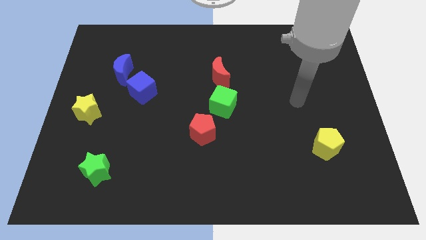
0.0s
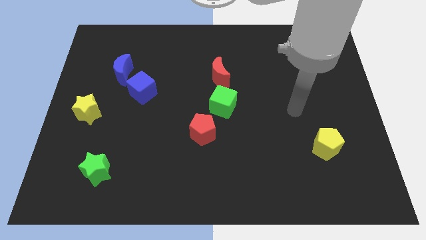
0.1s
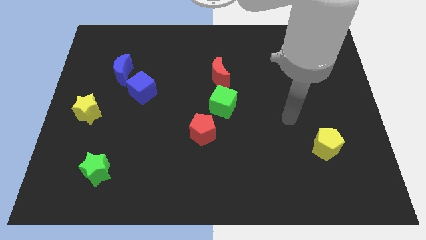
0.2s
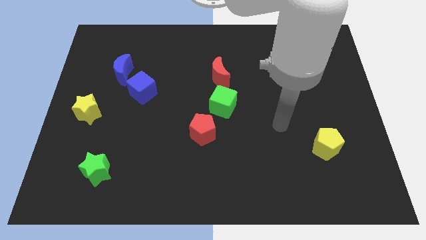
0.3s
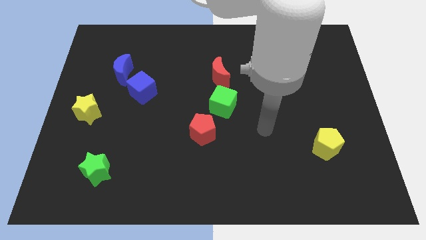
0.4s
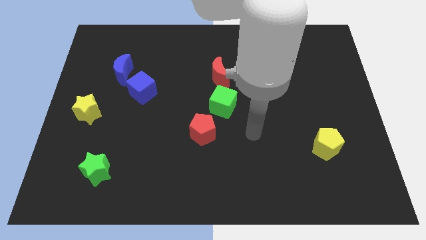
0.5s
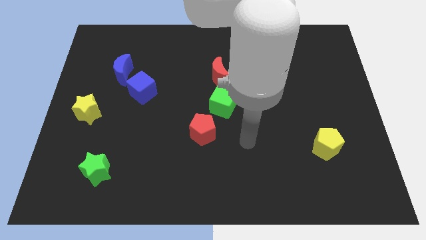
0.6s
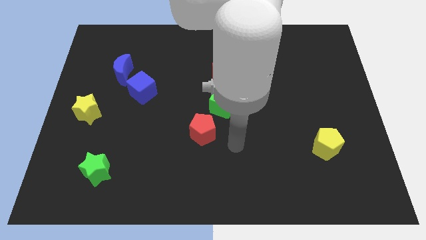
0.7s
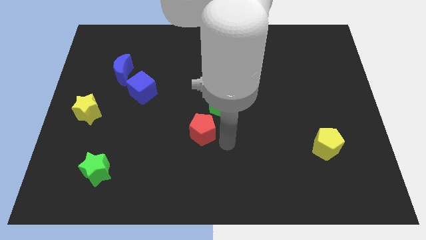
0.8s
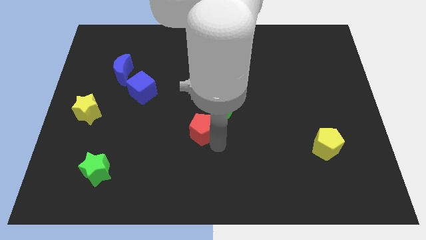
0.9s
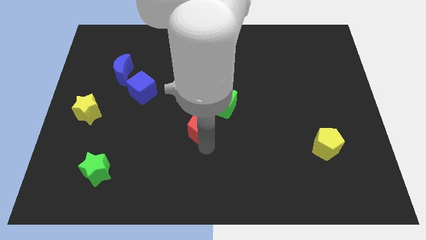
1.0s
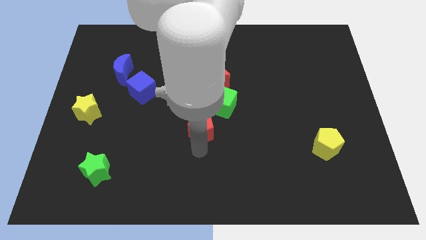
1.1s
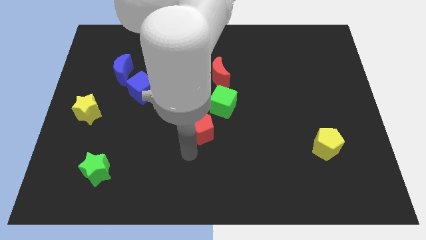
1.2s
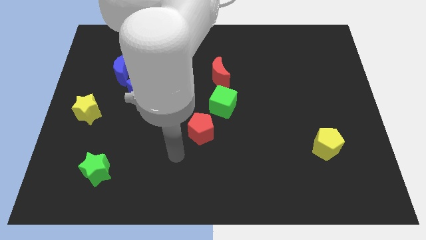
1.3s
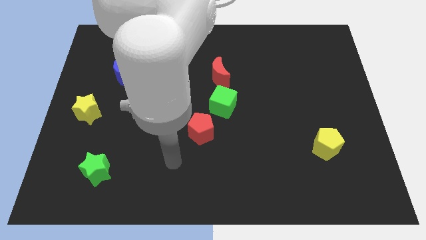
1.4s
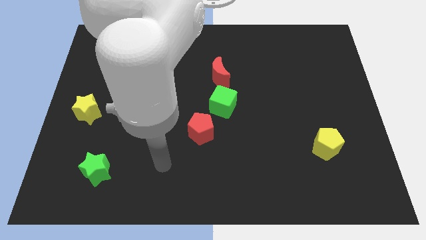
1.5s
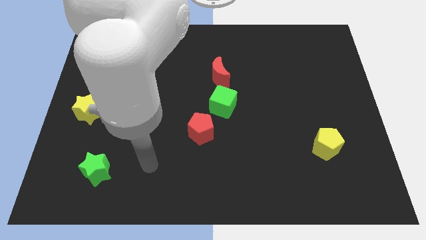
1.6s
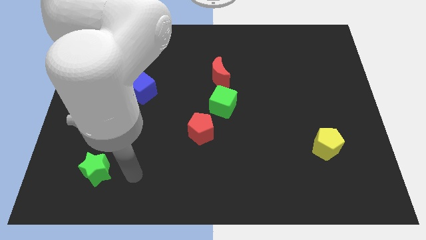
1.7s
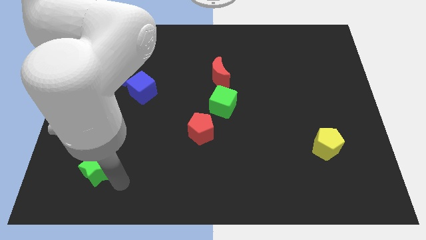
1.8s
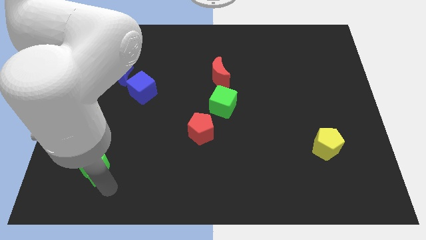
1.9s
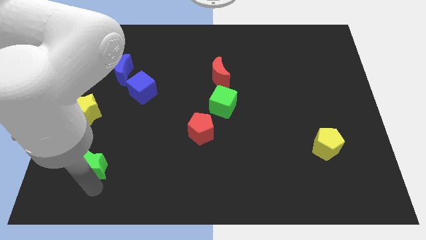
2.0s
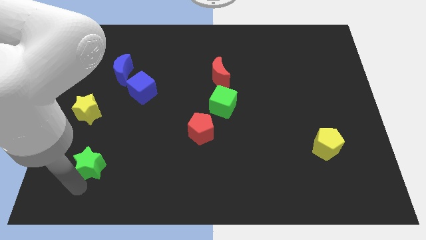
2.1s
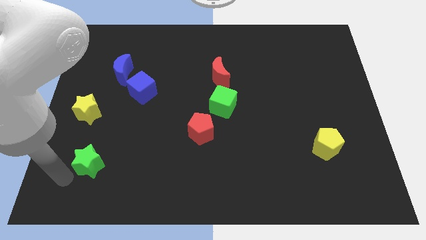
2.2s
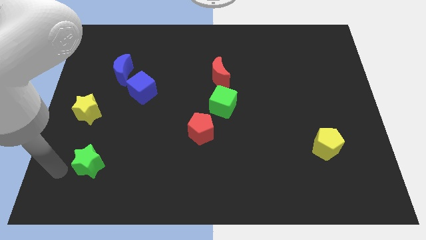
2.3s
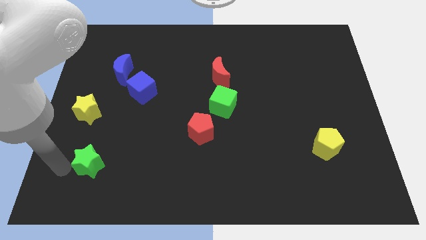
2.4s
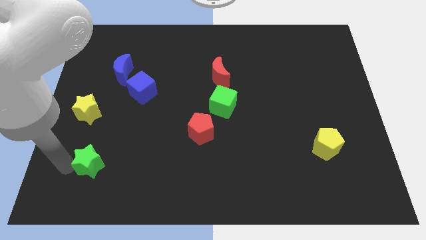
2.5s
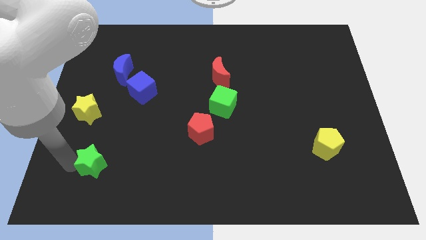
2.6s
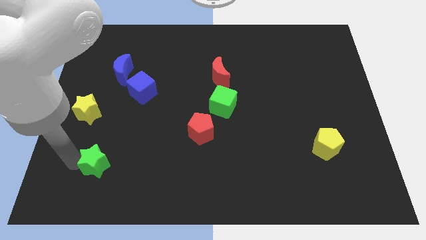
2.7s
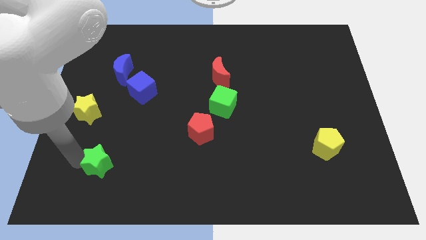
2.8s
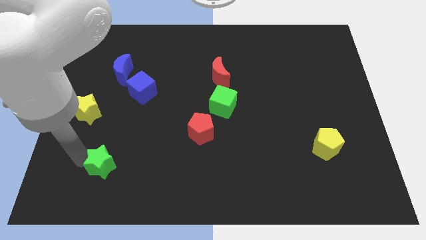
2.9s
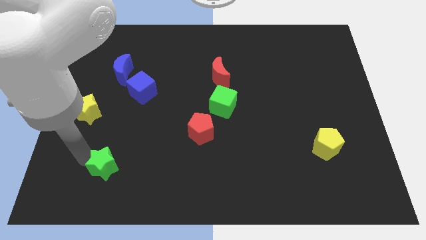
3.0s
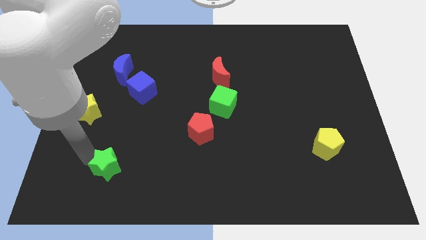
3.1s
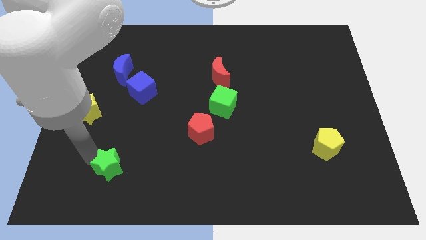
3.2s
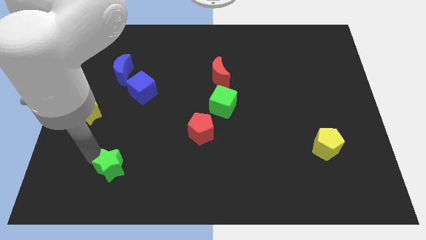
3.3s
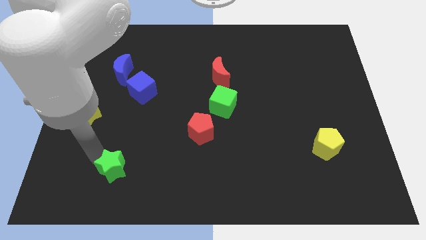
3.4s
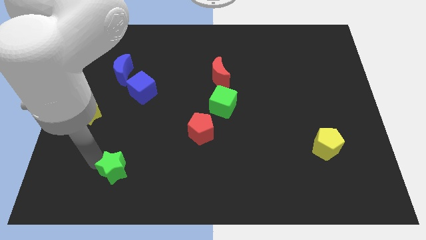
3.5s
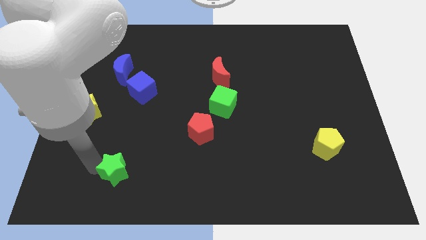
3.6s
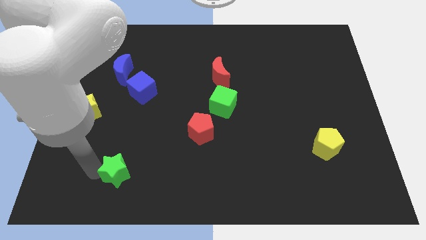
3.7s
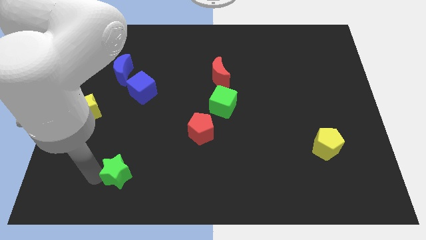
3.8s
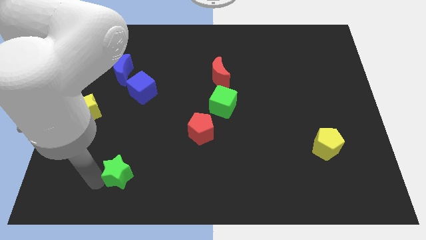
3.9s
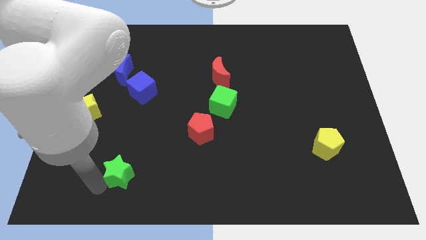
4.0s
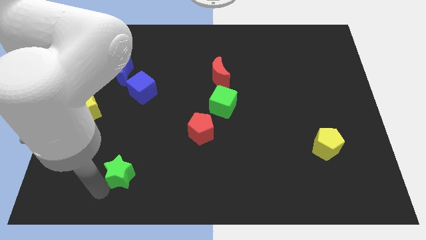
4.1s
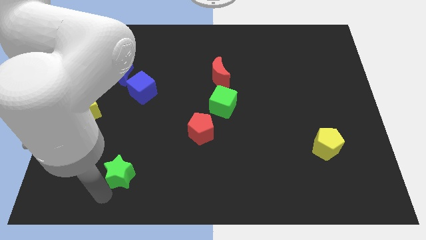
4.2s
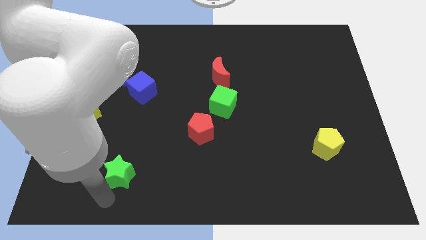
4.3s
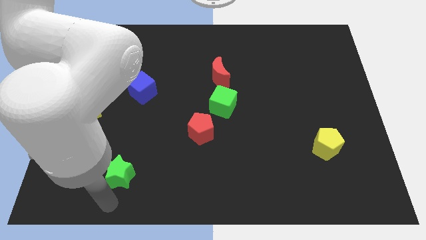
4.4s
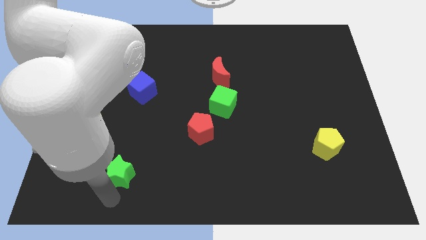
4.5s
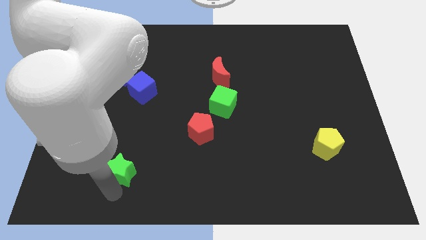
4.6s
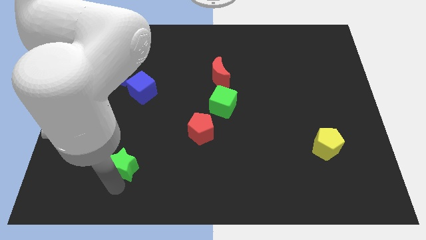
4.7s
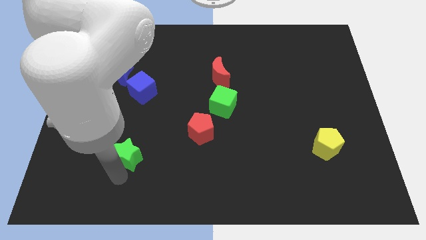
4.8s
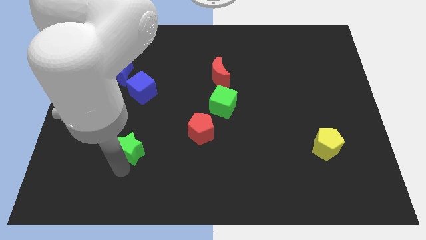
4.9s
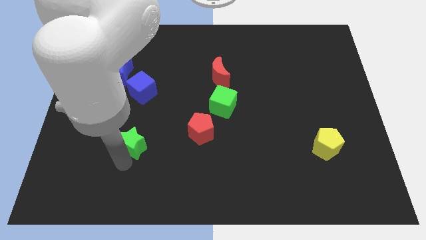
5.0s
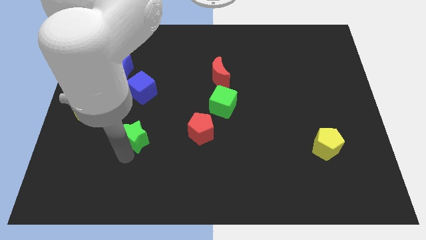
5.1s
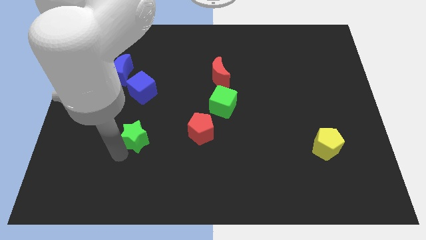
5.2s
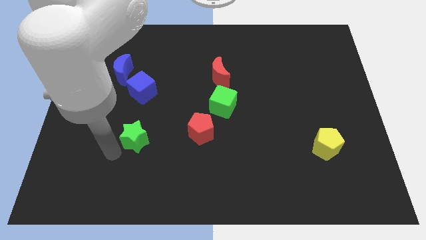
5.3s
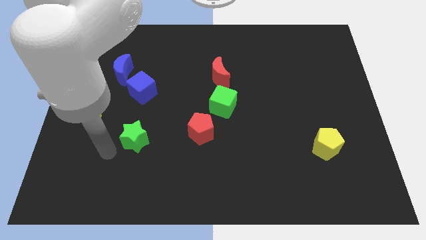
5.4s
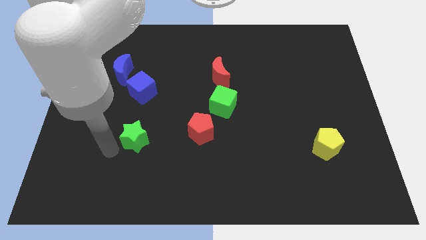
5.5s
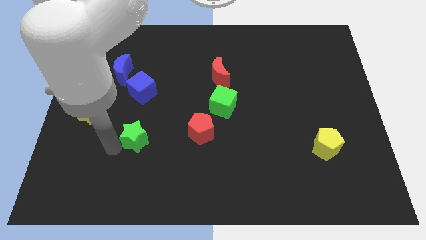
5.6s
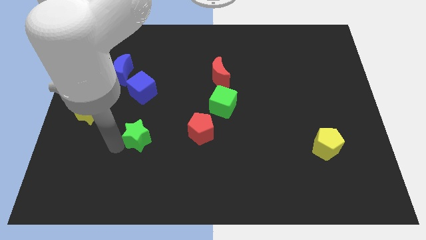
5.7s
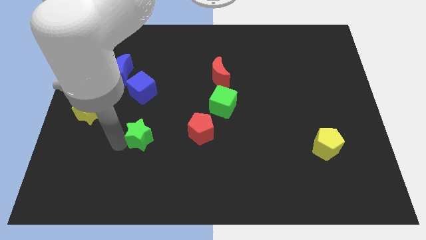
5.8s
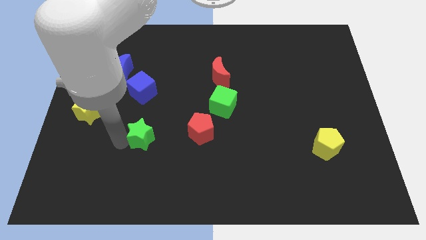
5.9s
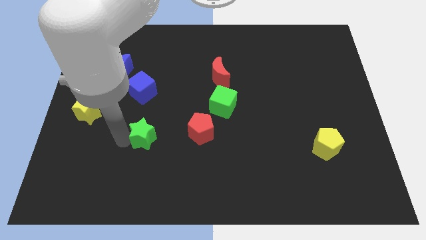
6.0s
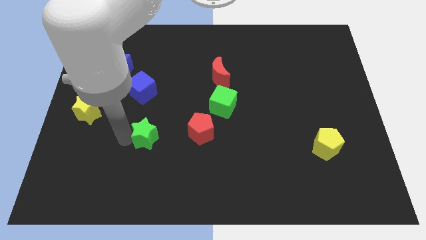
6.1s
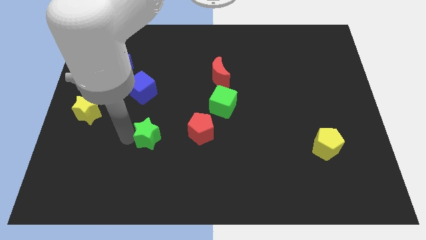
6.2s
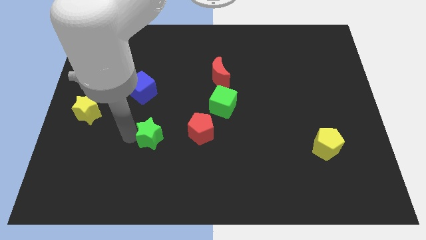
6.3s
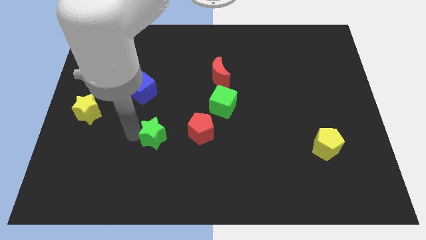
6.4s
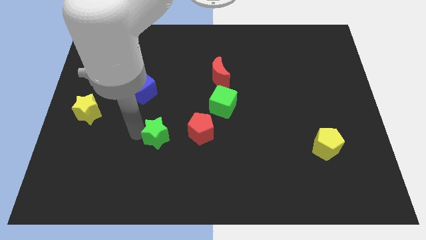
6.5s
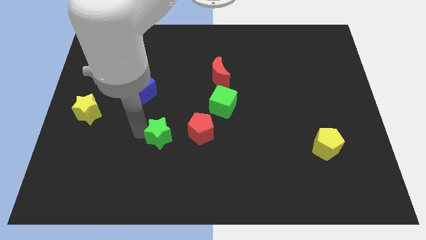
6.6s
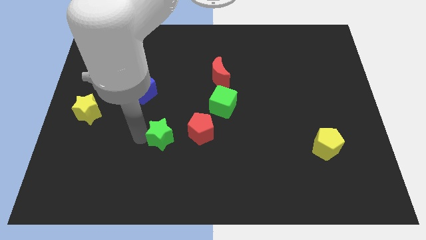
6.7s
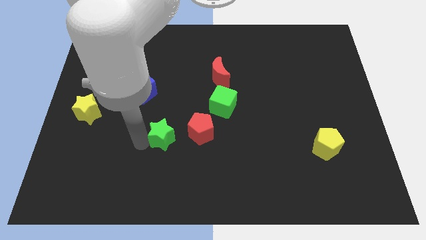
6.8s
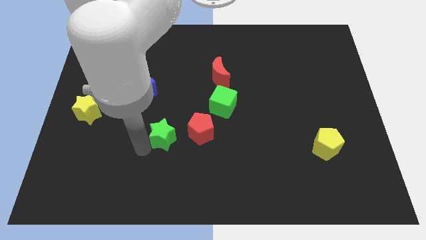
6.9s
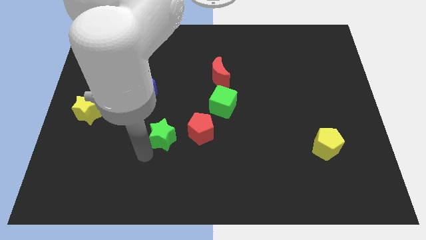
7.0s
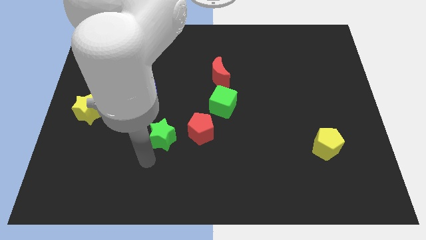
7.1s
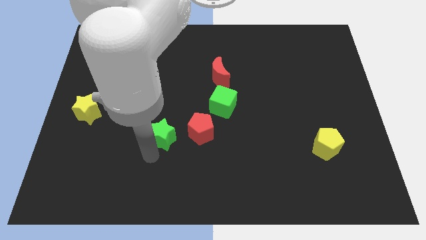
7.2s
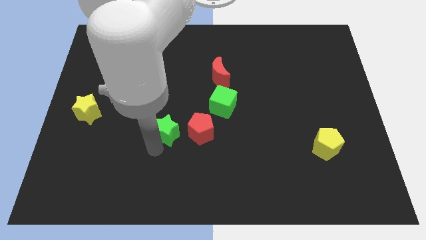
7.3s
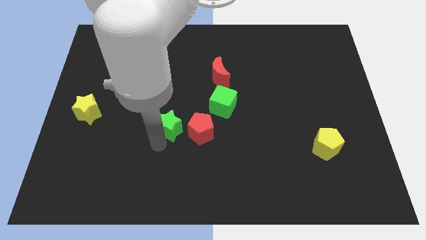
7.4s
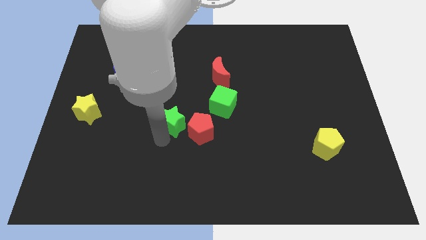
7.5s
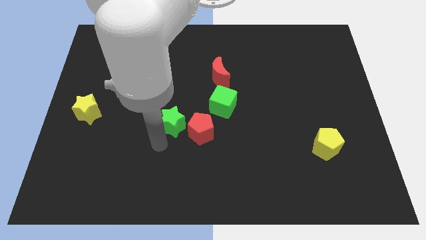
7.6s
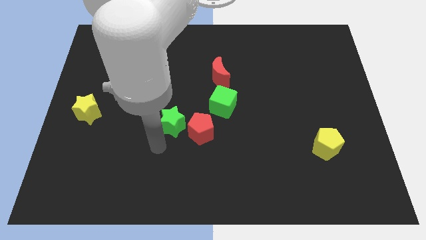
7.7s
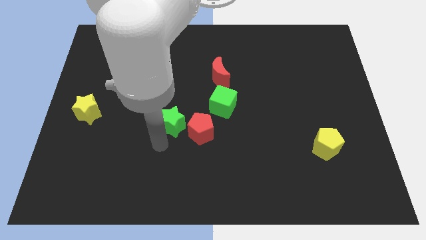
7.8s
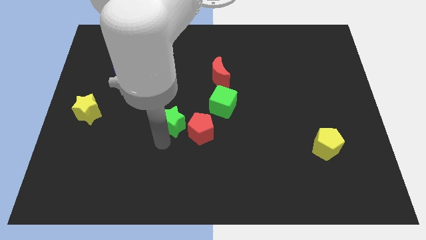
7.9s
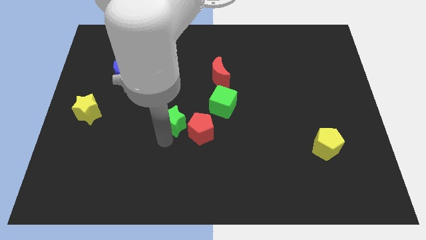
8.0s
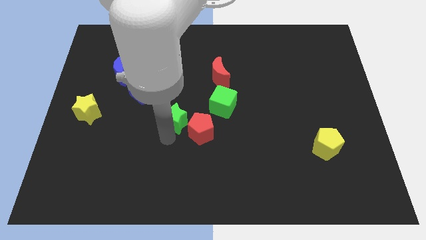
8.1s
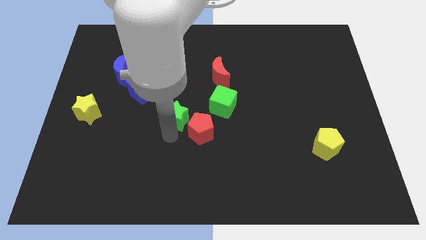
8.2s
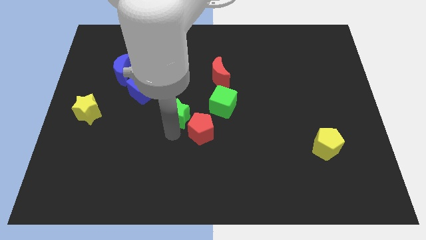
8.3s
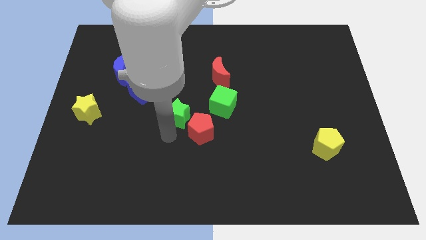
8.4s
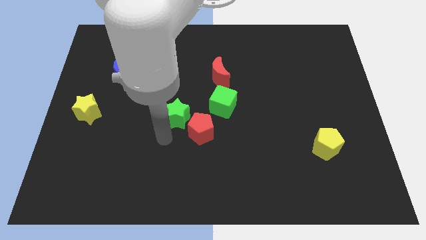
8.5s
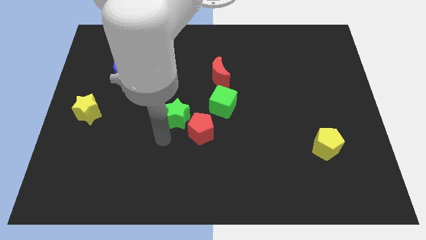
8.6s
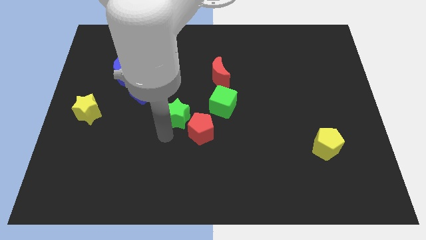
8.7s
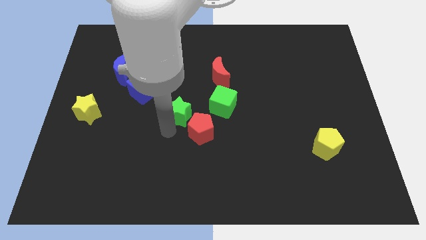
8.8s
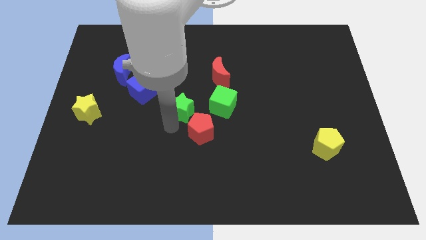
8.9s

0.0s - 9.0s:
push the green star to the top side of the red pentagon
